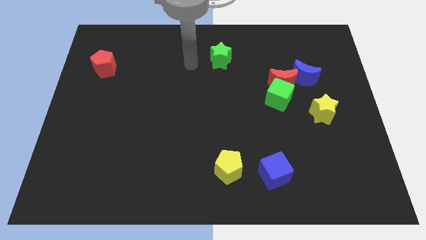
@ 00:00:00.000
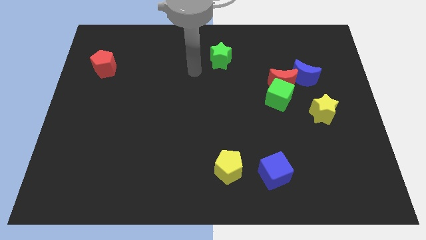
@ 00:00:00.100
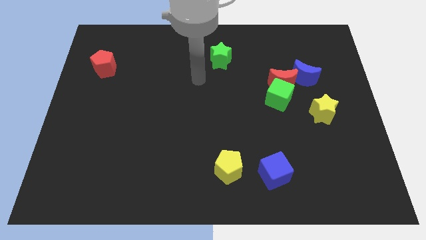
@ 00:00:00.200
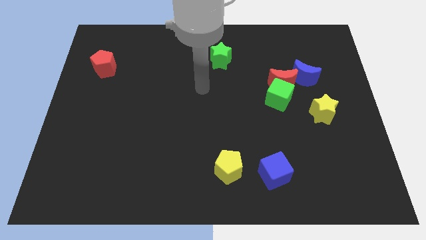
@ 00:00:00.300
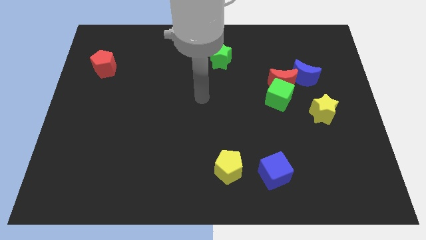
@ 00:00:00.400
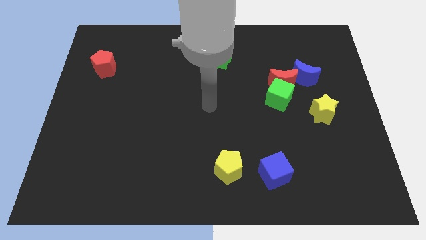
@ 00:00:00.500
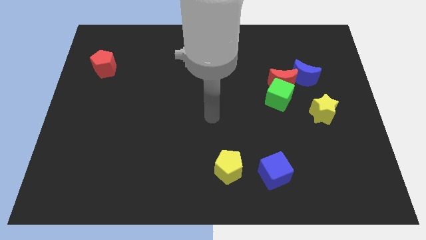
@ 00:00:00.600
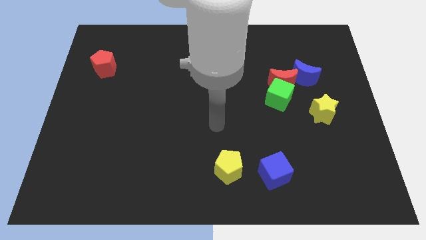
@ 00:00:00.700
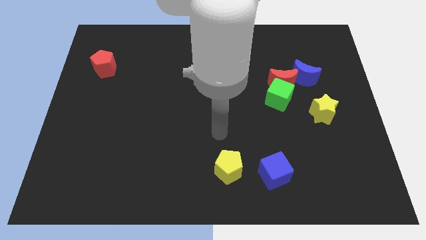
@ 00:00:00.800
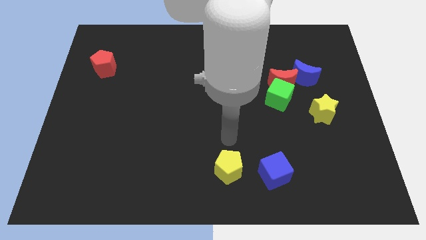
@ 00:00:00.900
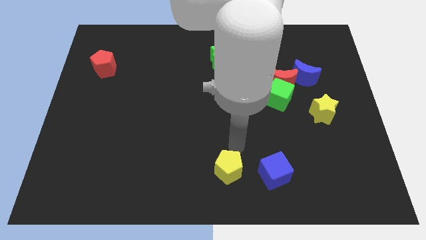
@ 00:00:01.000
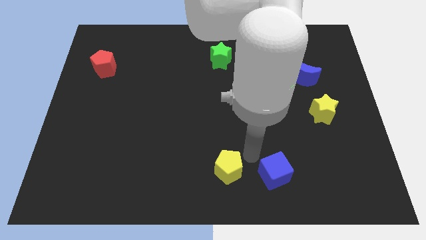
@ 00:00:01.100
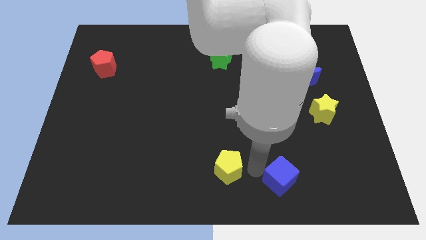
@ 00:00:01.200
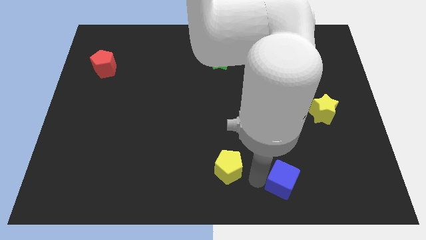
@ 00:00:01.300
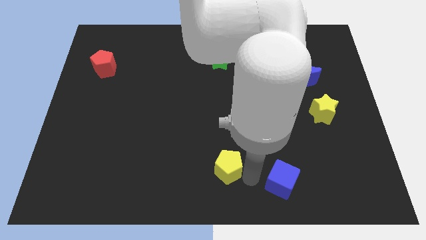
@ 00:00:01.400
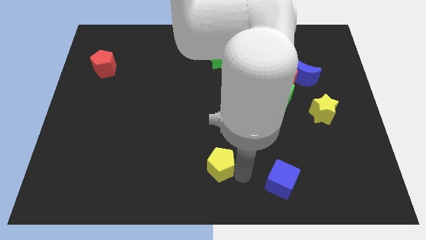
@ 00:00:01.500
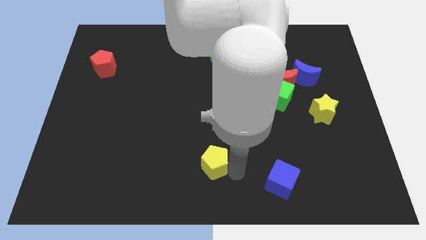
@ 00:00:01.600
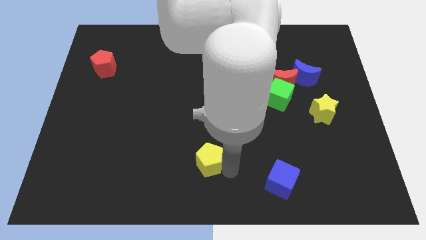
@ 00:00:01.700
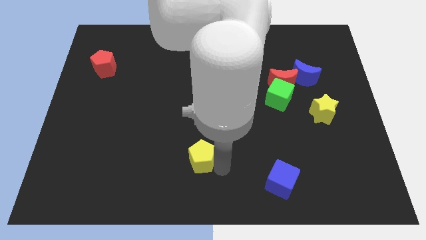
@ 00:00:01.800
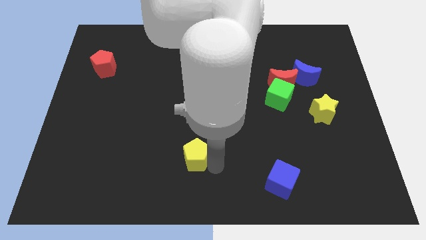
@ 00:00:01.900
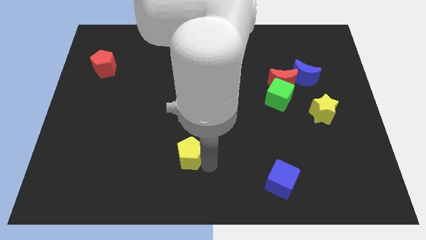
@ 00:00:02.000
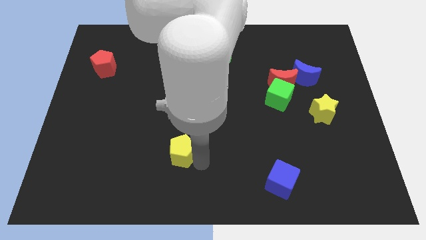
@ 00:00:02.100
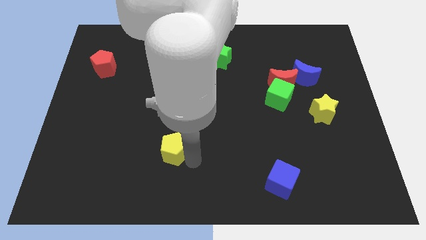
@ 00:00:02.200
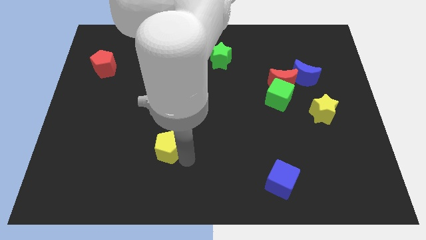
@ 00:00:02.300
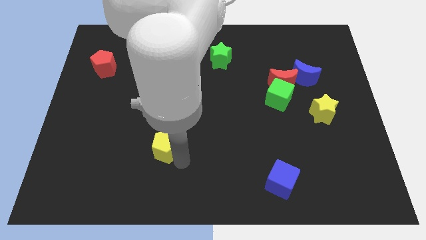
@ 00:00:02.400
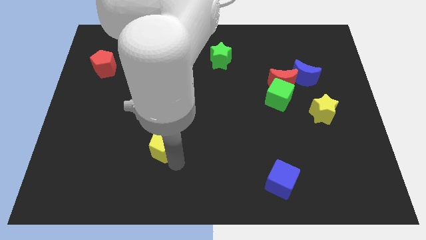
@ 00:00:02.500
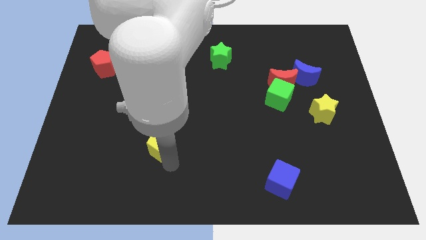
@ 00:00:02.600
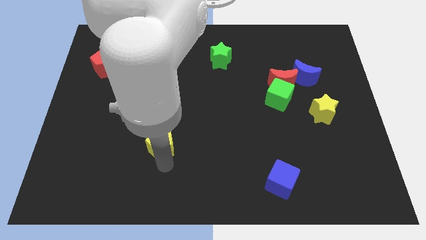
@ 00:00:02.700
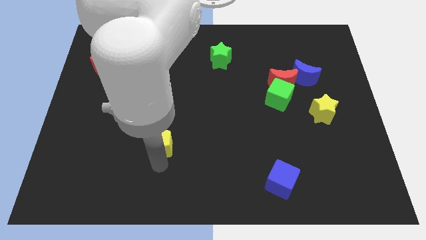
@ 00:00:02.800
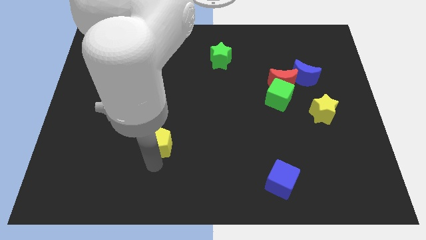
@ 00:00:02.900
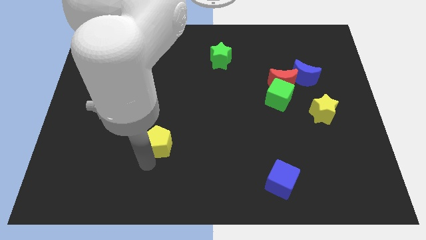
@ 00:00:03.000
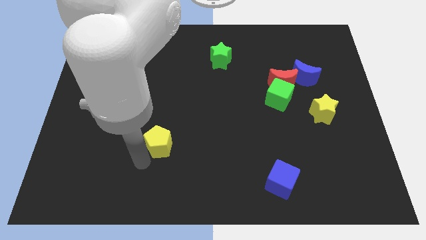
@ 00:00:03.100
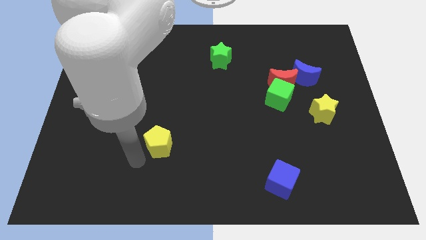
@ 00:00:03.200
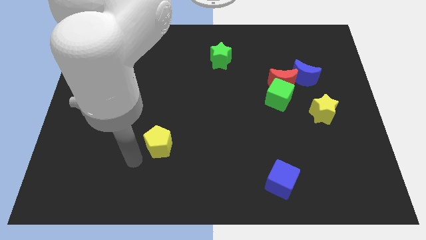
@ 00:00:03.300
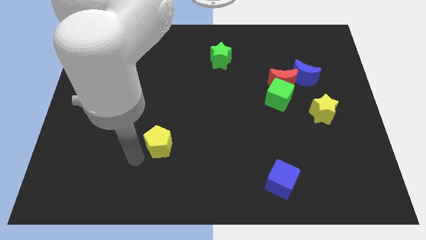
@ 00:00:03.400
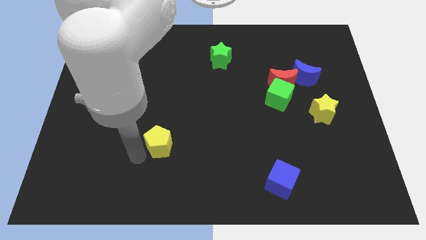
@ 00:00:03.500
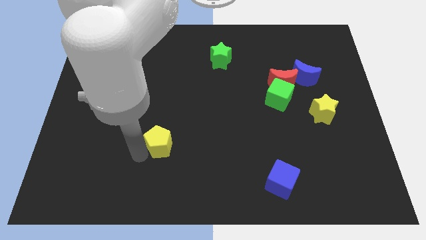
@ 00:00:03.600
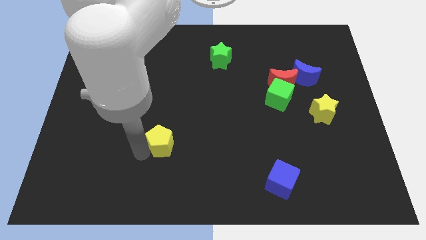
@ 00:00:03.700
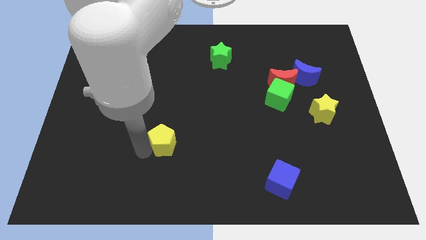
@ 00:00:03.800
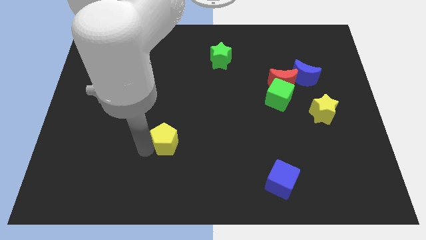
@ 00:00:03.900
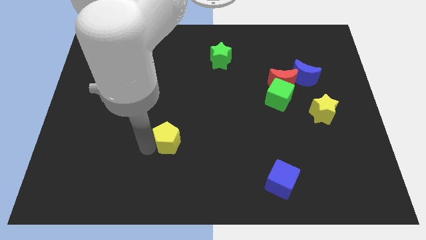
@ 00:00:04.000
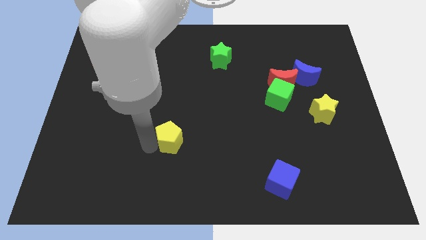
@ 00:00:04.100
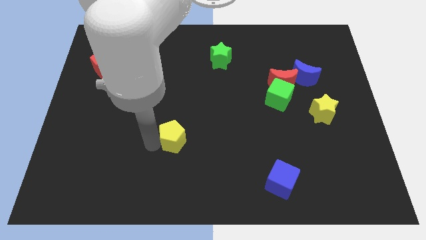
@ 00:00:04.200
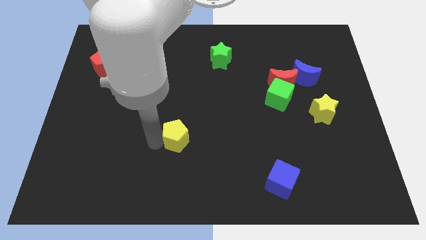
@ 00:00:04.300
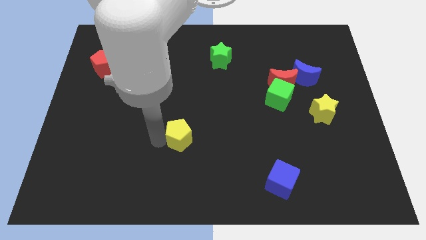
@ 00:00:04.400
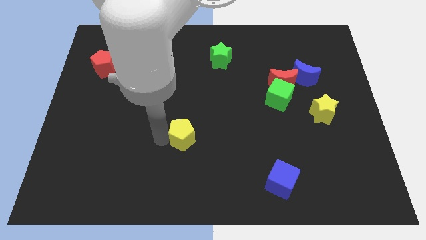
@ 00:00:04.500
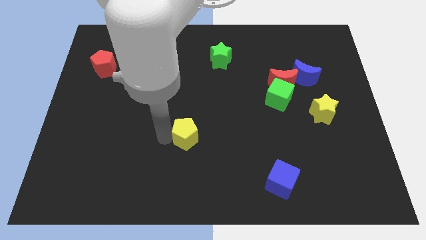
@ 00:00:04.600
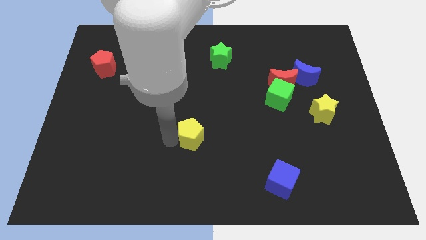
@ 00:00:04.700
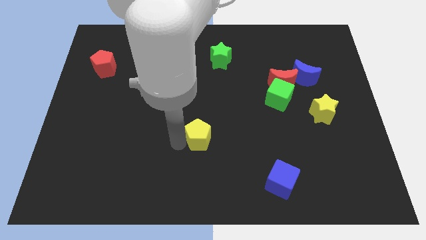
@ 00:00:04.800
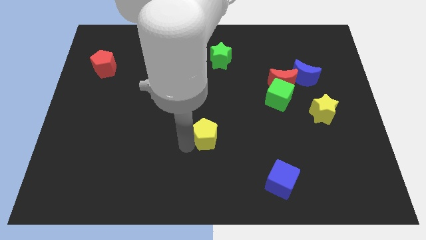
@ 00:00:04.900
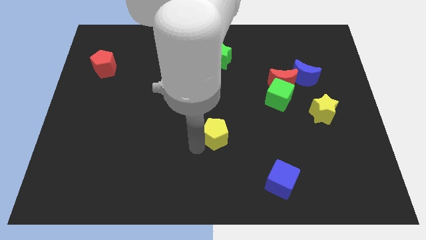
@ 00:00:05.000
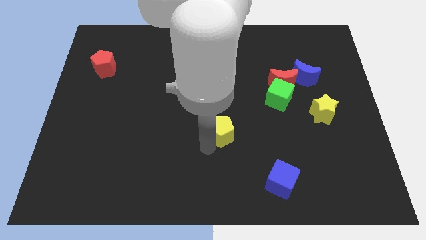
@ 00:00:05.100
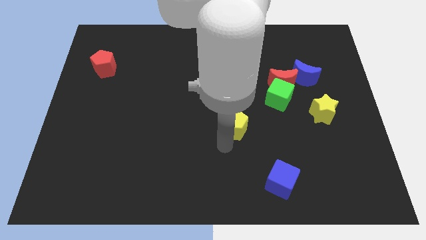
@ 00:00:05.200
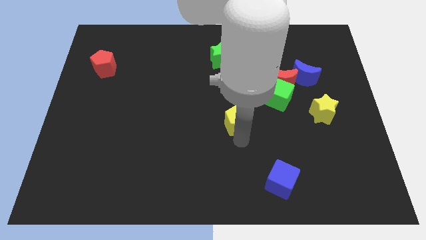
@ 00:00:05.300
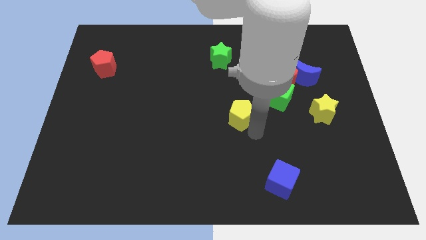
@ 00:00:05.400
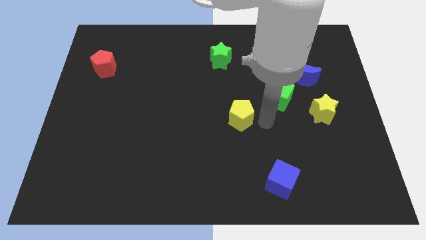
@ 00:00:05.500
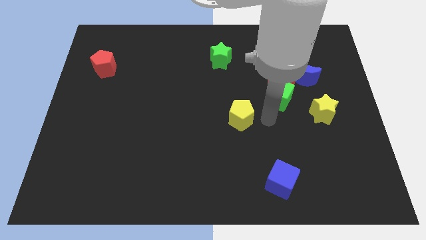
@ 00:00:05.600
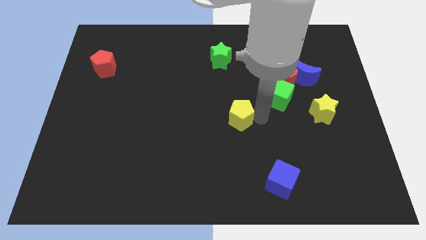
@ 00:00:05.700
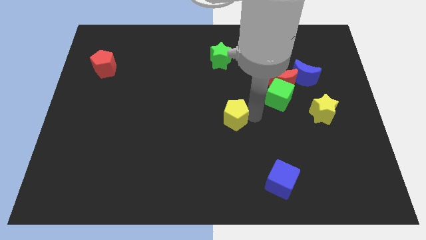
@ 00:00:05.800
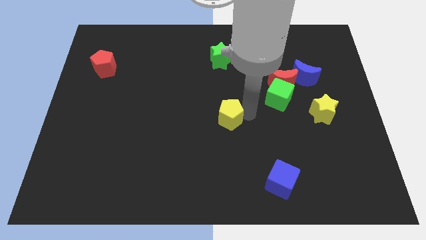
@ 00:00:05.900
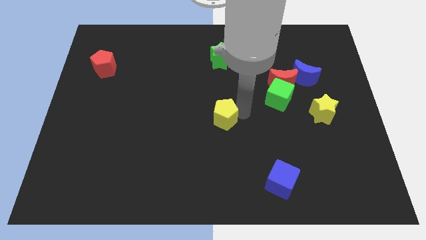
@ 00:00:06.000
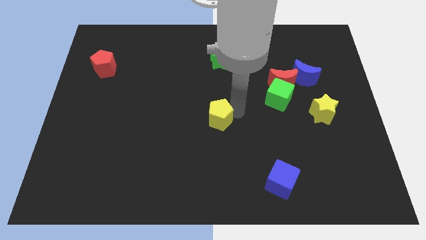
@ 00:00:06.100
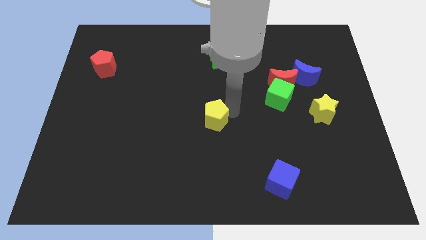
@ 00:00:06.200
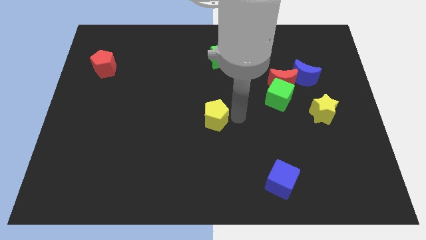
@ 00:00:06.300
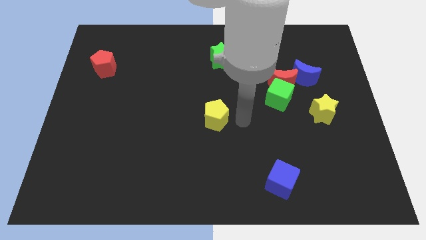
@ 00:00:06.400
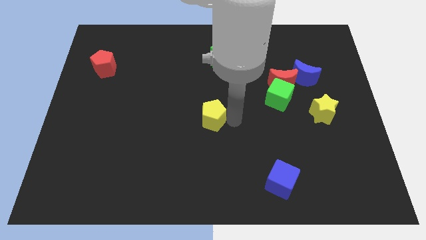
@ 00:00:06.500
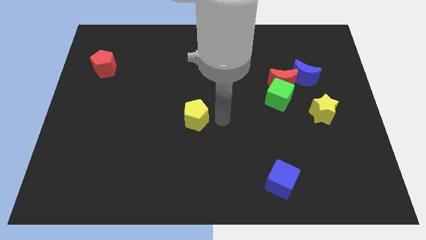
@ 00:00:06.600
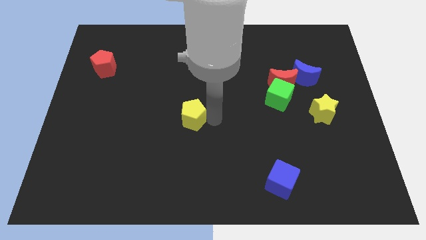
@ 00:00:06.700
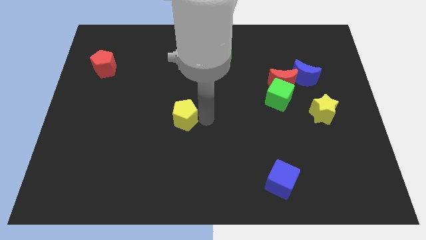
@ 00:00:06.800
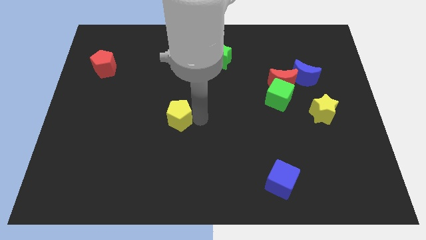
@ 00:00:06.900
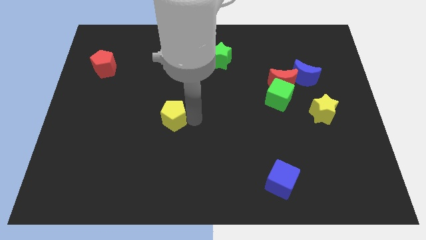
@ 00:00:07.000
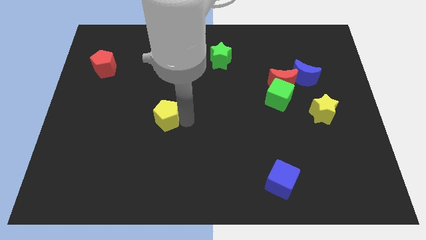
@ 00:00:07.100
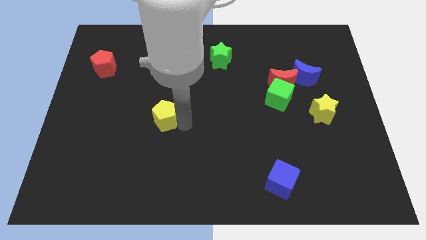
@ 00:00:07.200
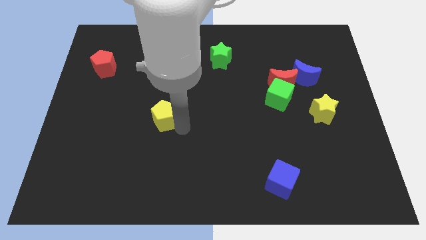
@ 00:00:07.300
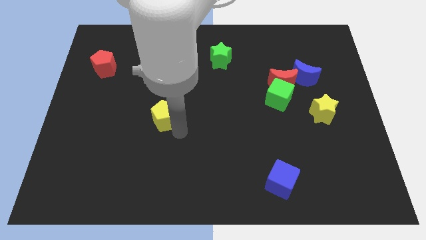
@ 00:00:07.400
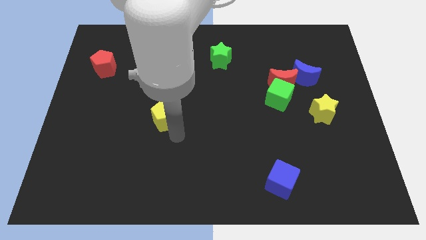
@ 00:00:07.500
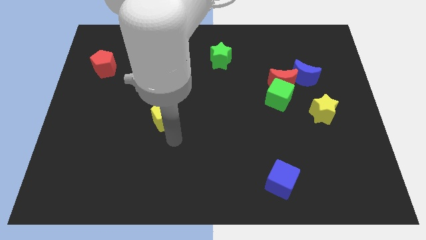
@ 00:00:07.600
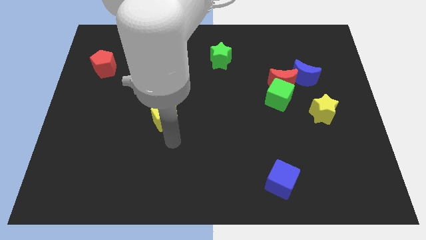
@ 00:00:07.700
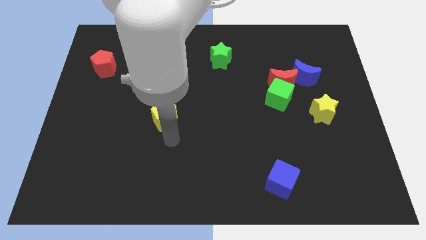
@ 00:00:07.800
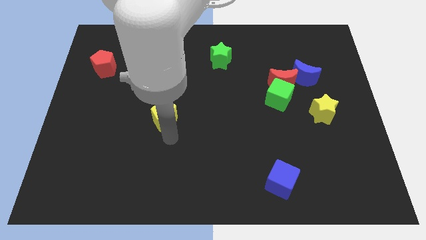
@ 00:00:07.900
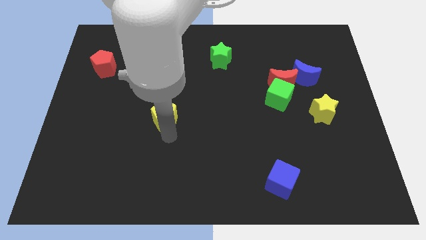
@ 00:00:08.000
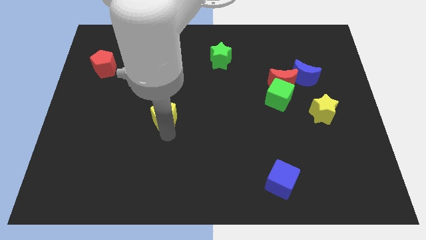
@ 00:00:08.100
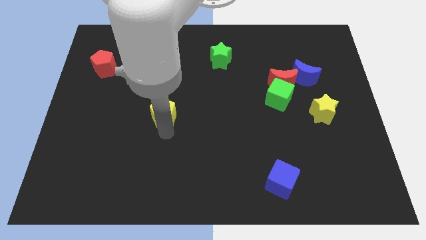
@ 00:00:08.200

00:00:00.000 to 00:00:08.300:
push the yellow pentagon upwards and to the left diagonally
